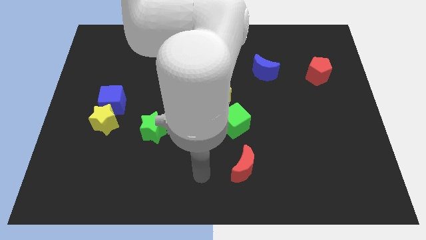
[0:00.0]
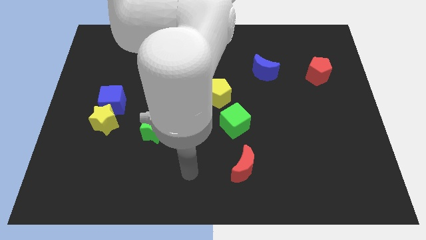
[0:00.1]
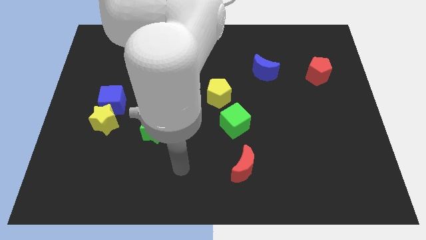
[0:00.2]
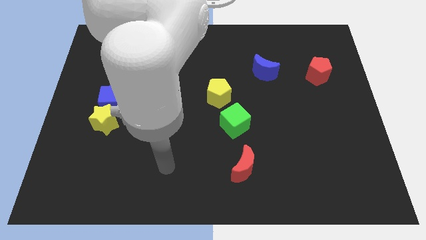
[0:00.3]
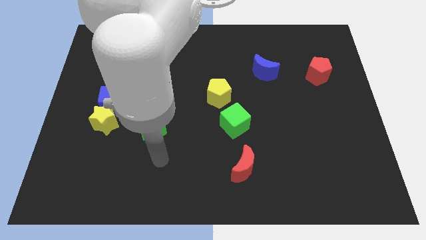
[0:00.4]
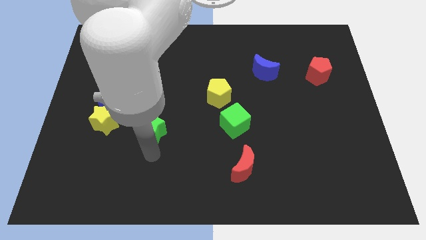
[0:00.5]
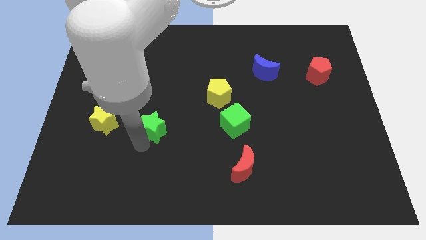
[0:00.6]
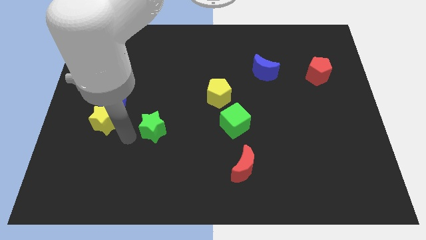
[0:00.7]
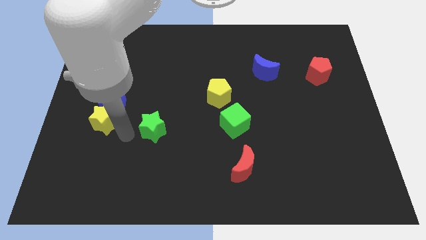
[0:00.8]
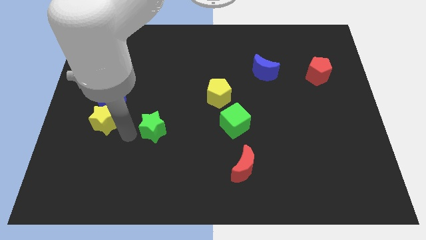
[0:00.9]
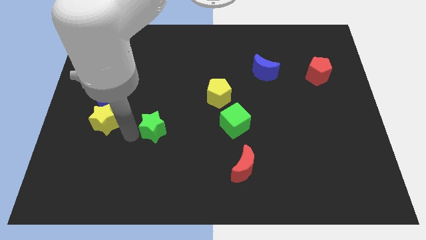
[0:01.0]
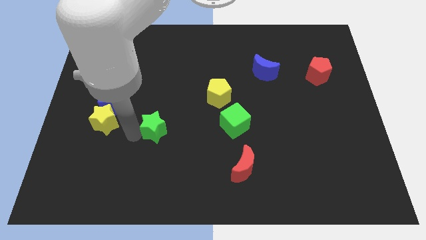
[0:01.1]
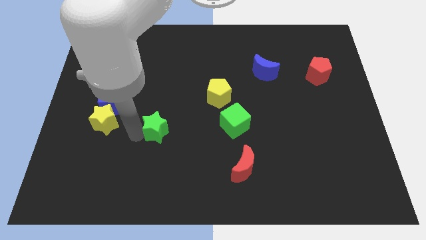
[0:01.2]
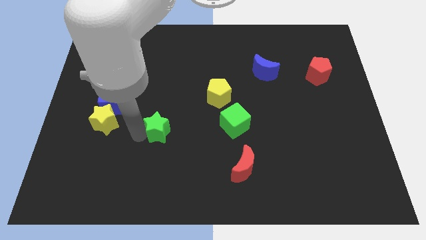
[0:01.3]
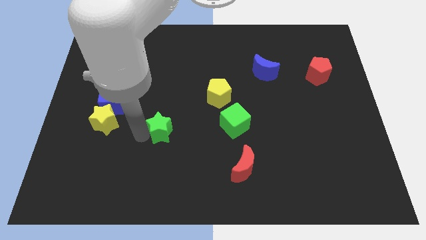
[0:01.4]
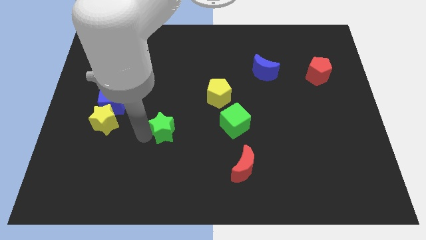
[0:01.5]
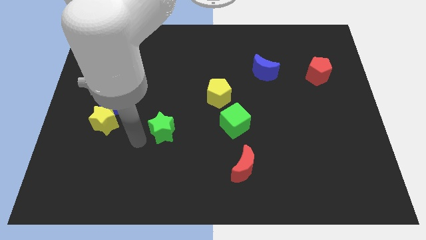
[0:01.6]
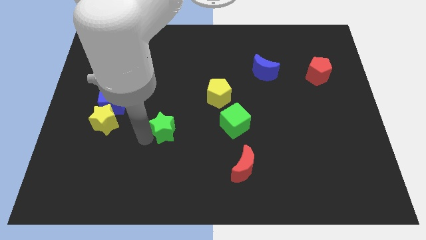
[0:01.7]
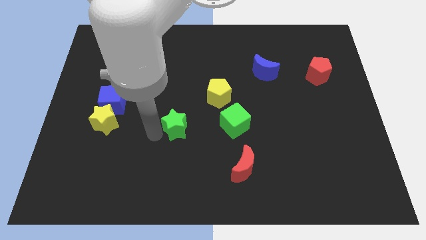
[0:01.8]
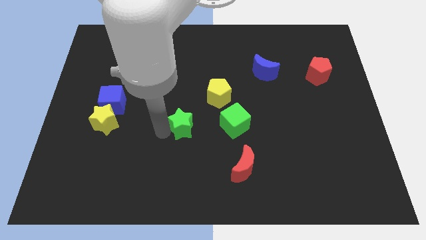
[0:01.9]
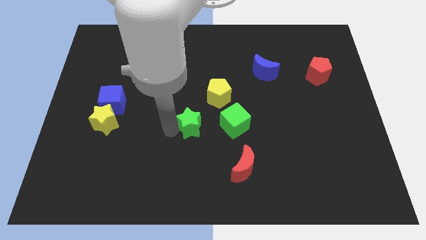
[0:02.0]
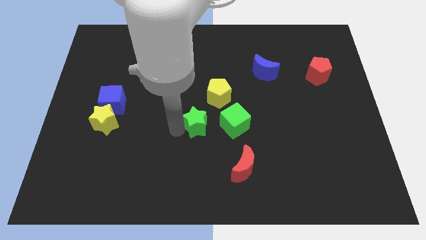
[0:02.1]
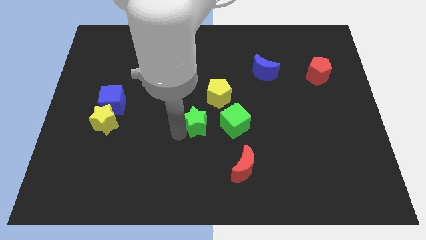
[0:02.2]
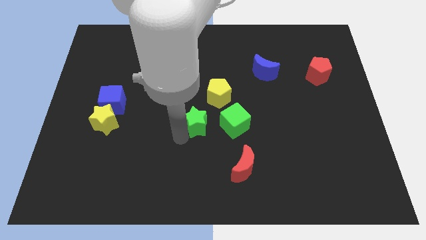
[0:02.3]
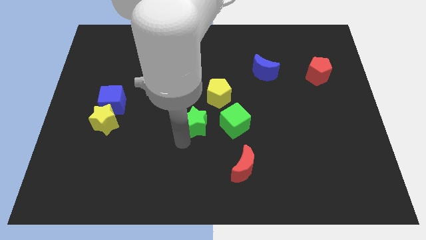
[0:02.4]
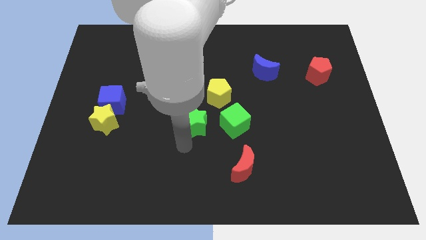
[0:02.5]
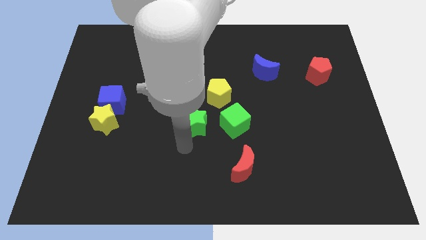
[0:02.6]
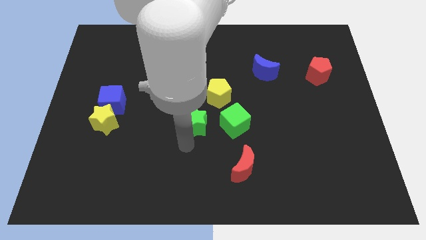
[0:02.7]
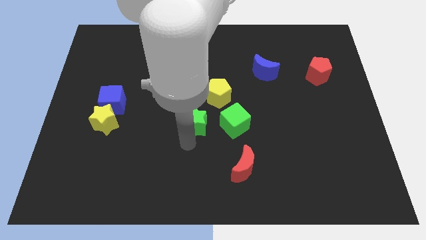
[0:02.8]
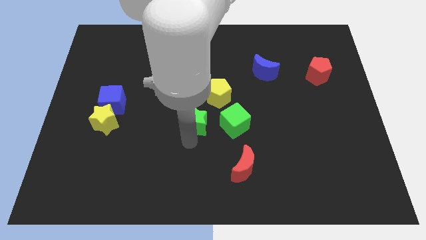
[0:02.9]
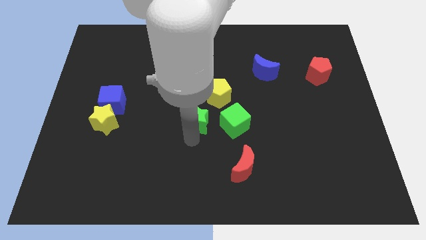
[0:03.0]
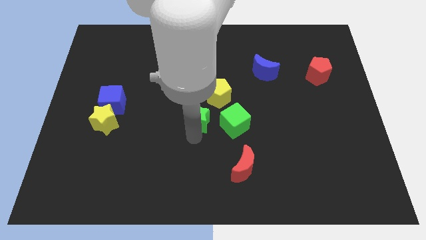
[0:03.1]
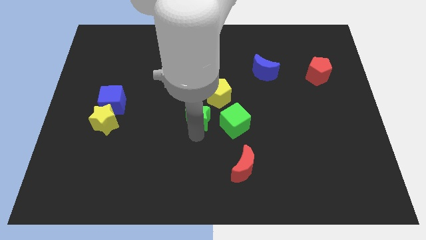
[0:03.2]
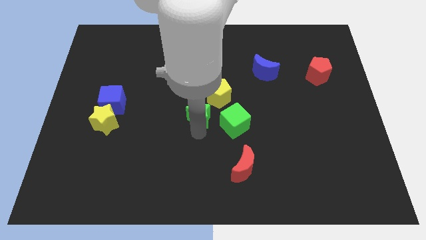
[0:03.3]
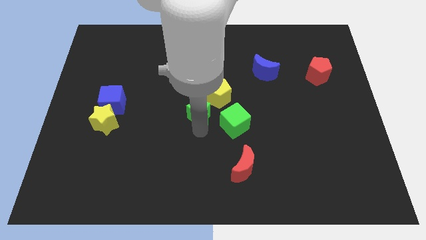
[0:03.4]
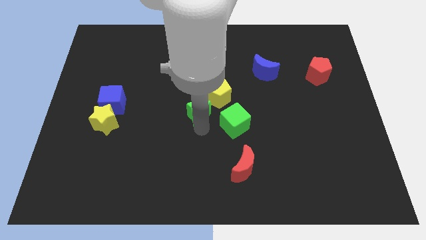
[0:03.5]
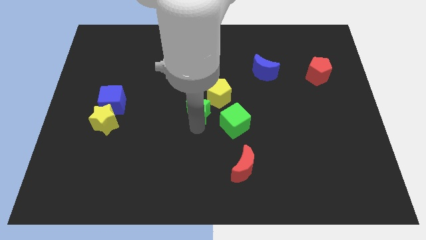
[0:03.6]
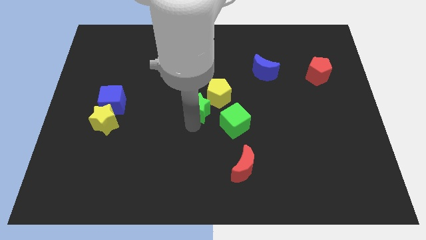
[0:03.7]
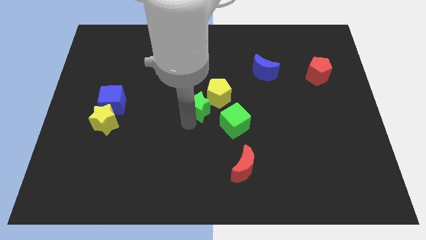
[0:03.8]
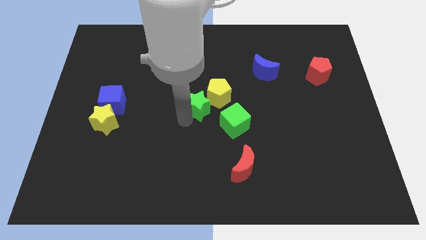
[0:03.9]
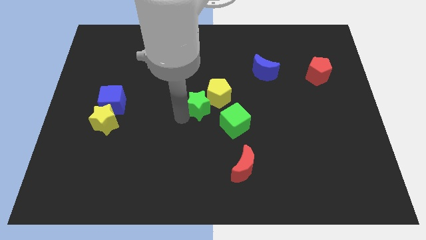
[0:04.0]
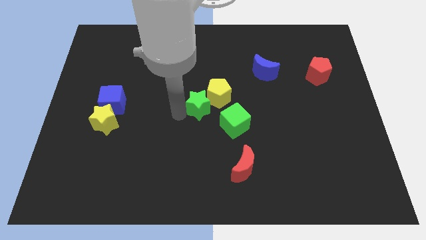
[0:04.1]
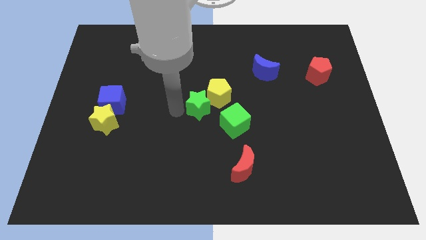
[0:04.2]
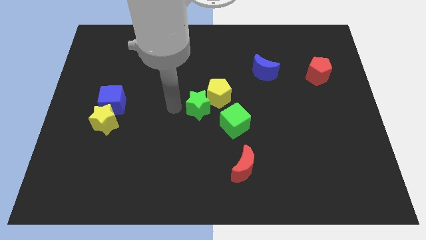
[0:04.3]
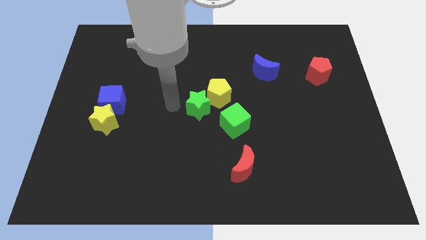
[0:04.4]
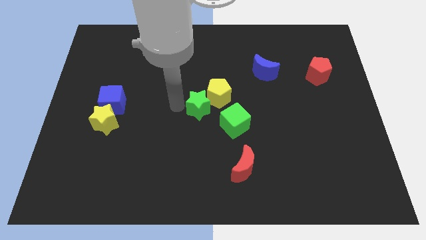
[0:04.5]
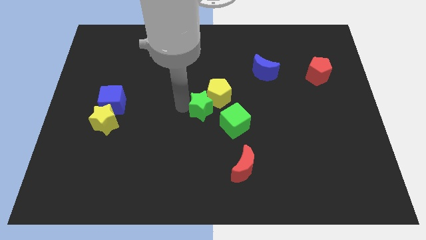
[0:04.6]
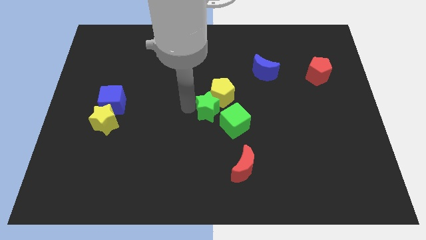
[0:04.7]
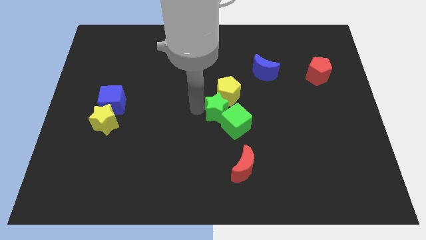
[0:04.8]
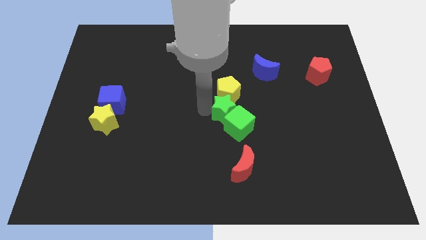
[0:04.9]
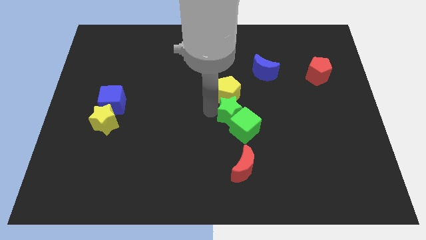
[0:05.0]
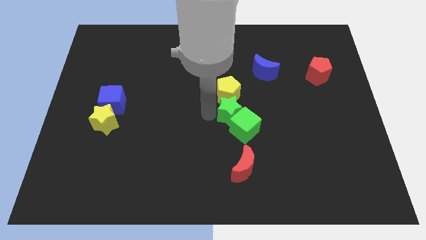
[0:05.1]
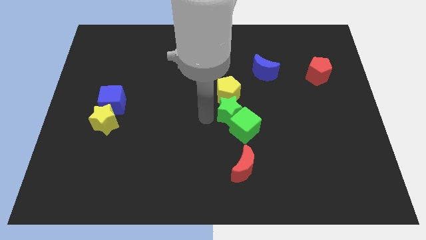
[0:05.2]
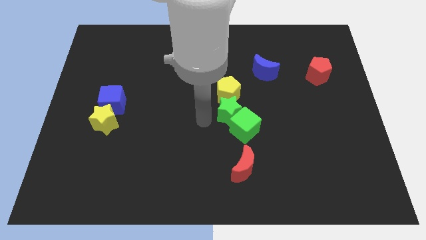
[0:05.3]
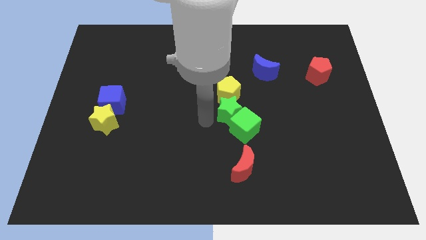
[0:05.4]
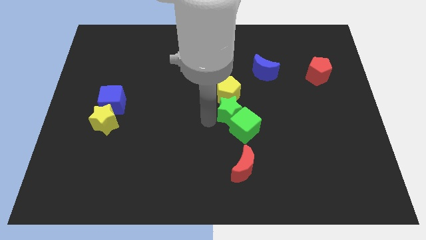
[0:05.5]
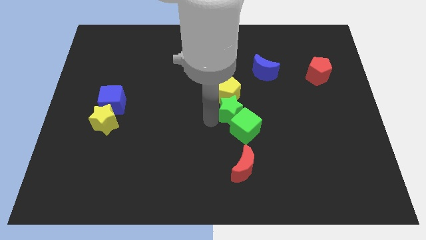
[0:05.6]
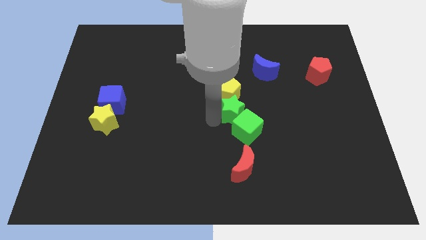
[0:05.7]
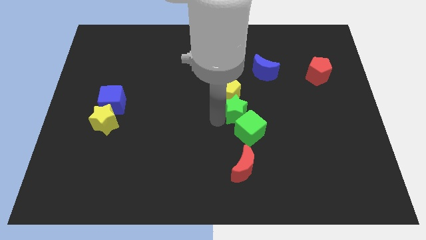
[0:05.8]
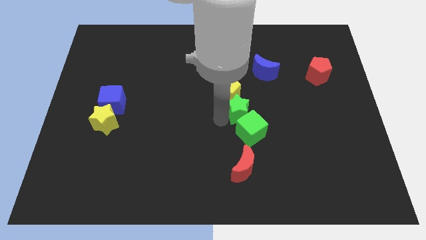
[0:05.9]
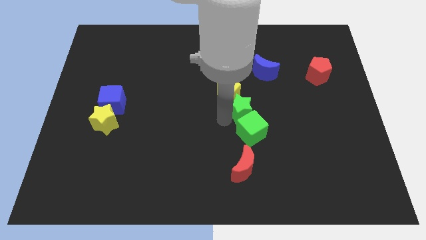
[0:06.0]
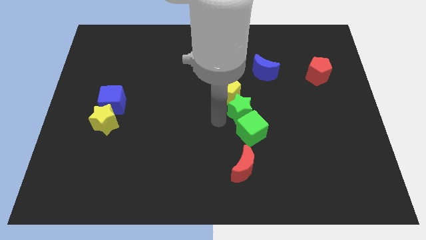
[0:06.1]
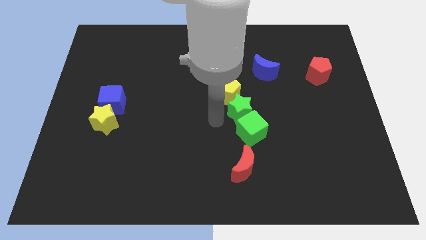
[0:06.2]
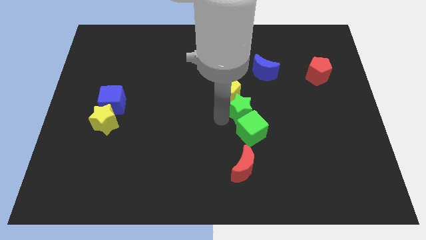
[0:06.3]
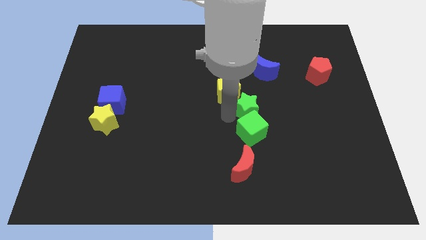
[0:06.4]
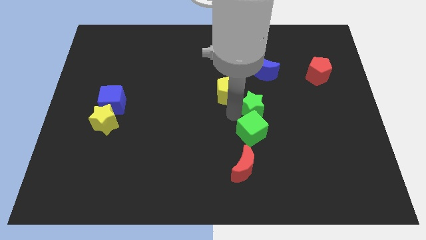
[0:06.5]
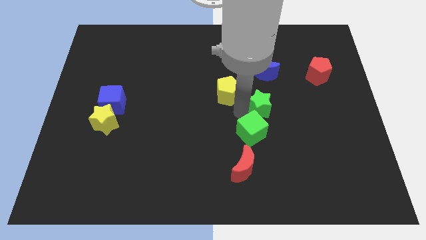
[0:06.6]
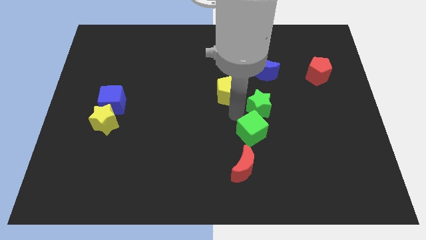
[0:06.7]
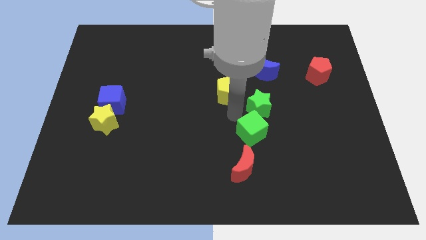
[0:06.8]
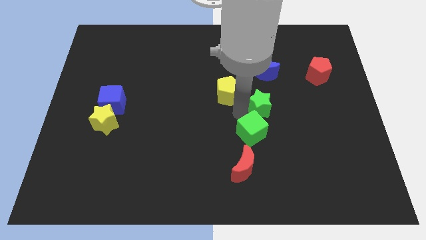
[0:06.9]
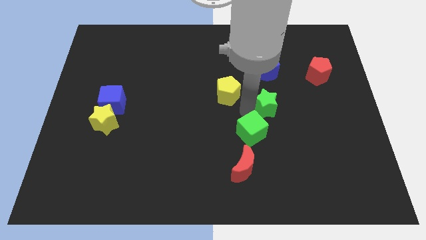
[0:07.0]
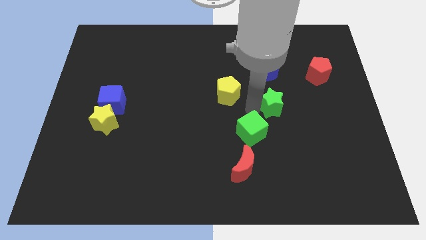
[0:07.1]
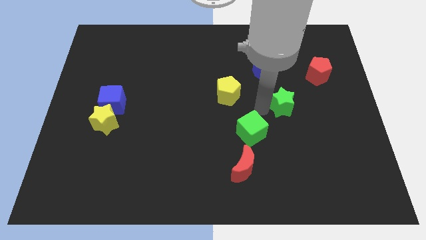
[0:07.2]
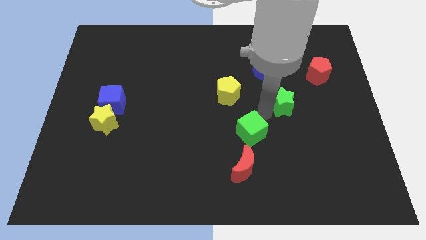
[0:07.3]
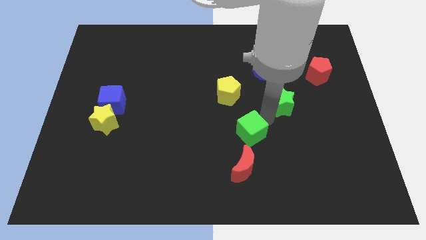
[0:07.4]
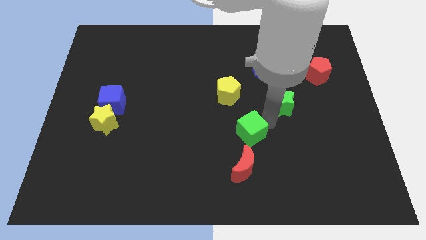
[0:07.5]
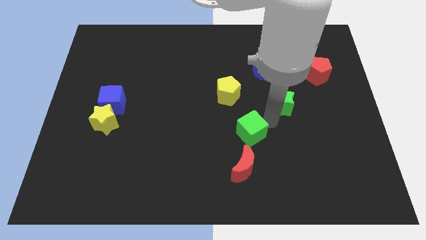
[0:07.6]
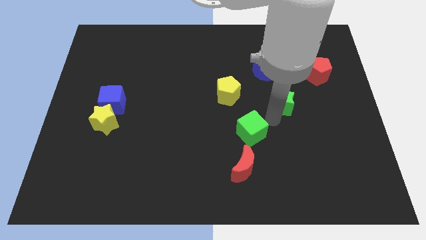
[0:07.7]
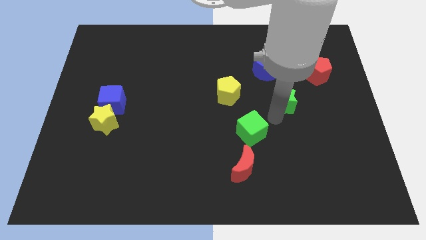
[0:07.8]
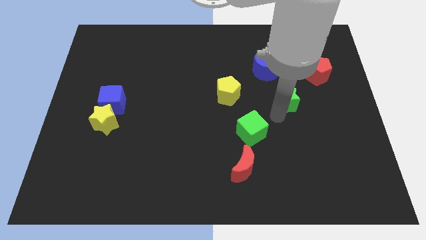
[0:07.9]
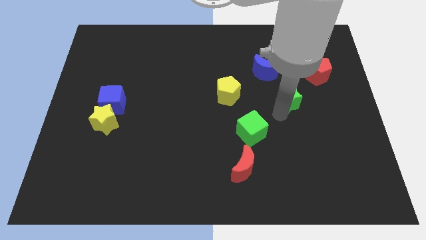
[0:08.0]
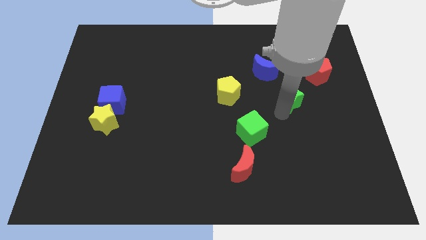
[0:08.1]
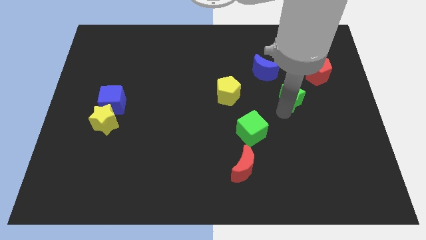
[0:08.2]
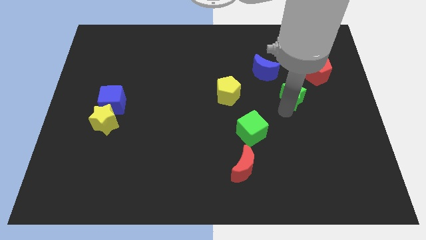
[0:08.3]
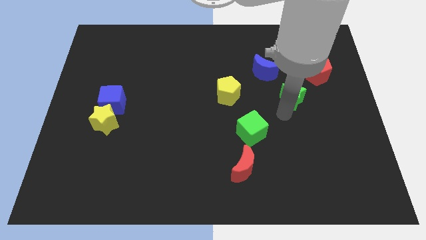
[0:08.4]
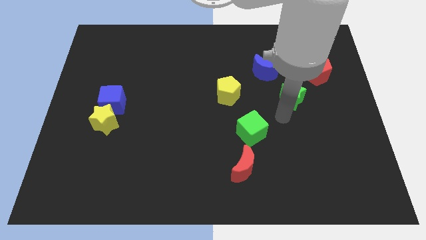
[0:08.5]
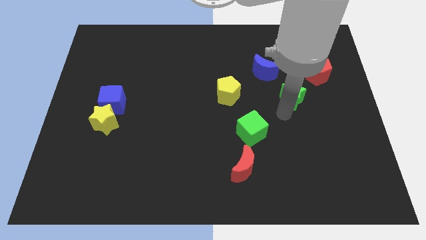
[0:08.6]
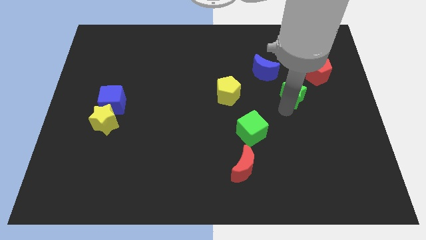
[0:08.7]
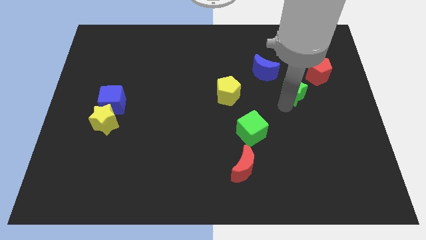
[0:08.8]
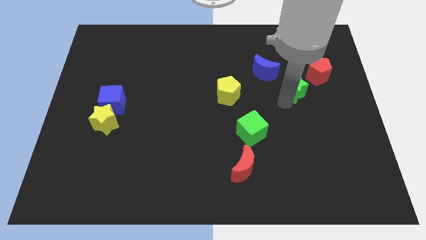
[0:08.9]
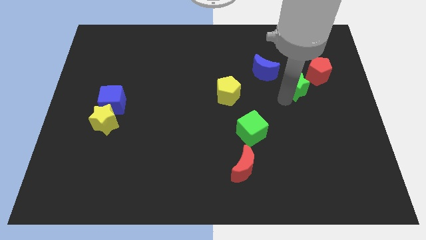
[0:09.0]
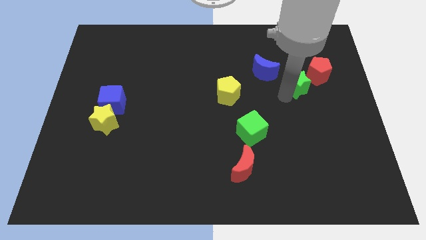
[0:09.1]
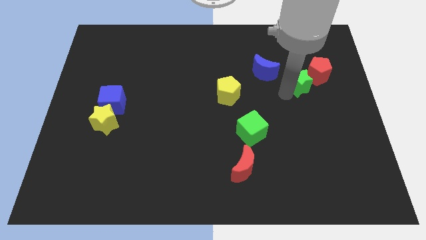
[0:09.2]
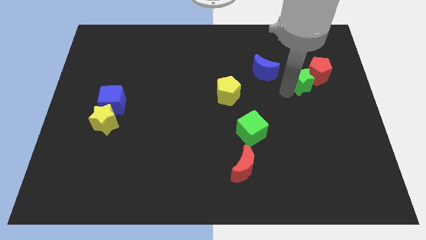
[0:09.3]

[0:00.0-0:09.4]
move the green star to the red pentagon
